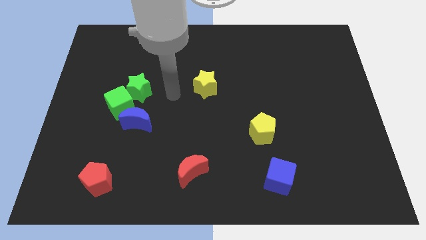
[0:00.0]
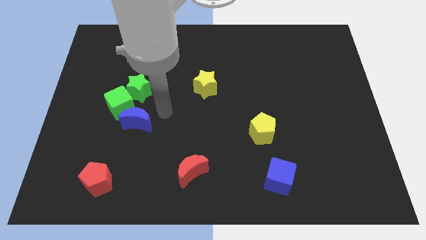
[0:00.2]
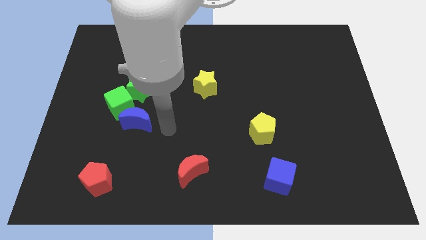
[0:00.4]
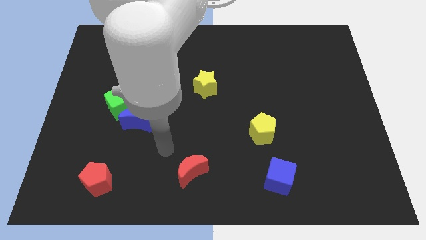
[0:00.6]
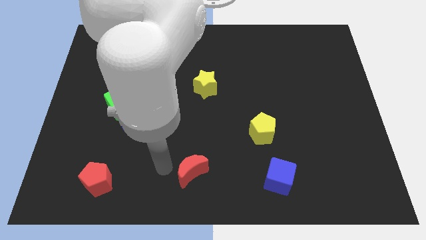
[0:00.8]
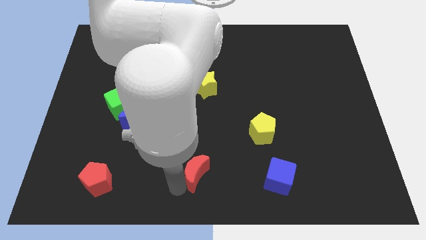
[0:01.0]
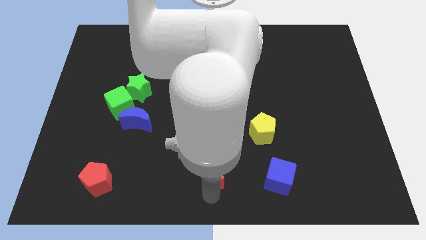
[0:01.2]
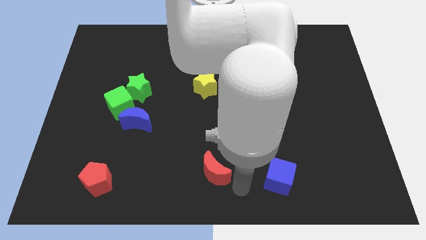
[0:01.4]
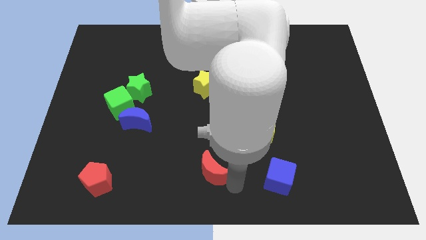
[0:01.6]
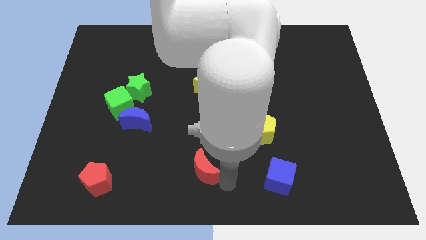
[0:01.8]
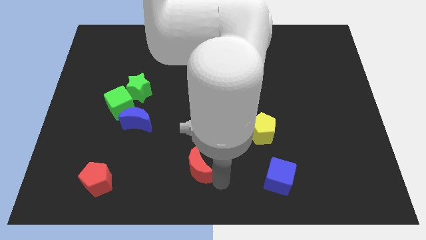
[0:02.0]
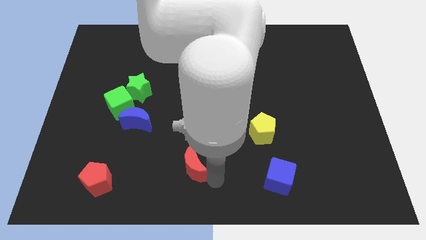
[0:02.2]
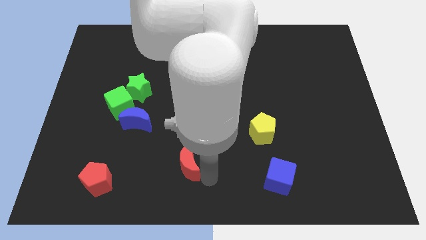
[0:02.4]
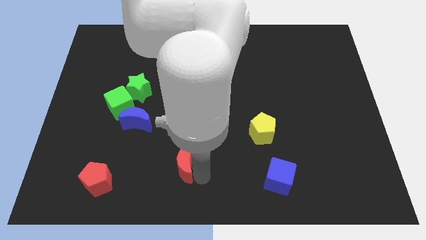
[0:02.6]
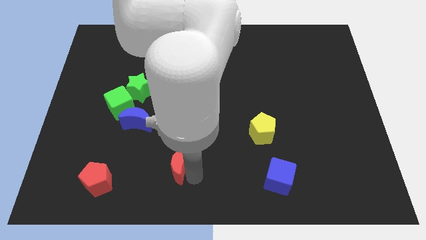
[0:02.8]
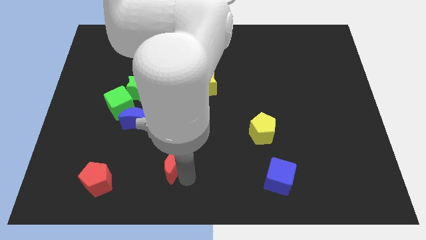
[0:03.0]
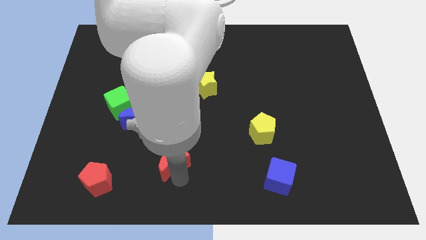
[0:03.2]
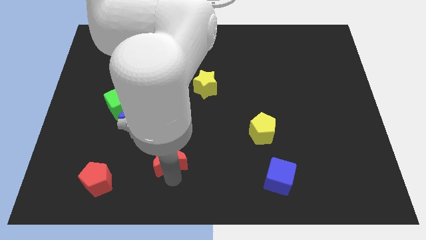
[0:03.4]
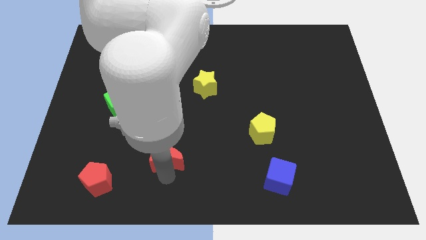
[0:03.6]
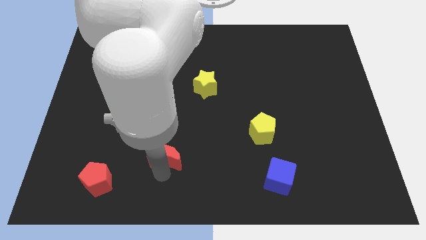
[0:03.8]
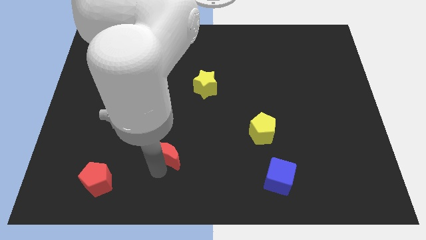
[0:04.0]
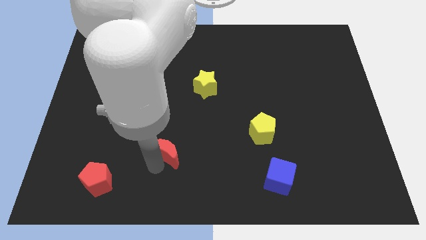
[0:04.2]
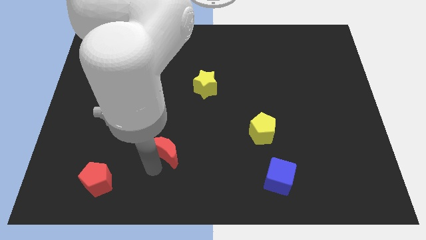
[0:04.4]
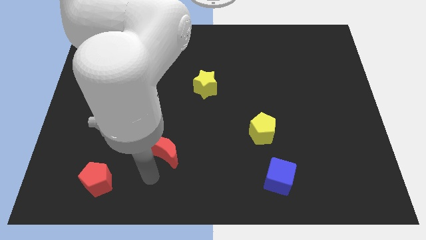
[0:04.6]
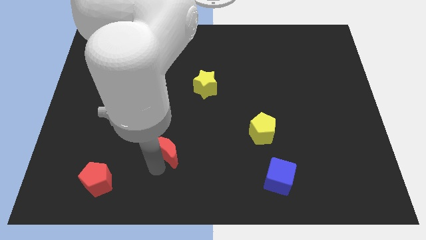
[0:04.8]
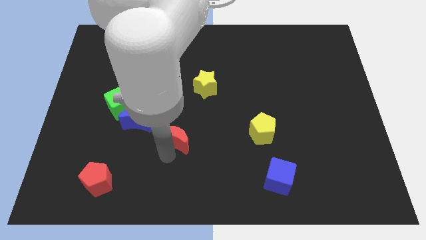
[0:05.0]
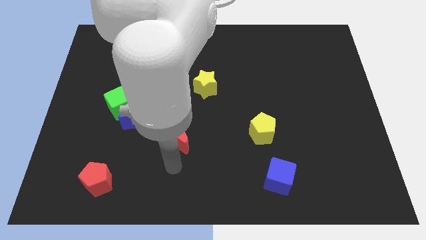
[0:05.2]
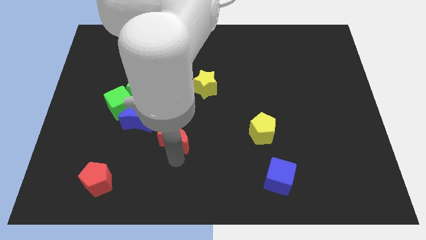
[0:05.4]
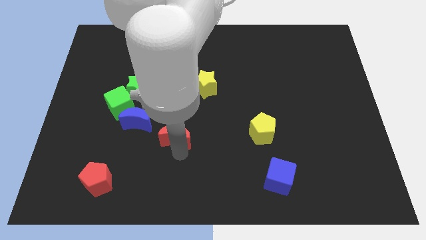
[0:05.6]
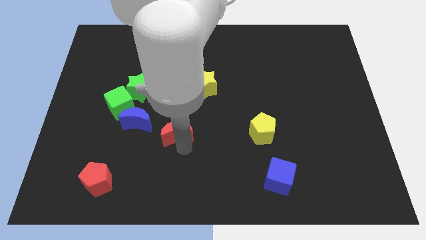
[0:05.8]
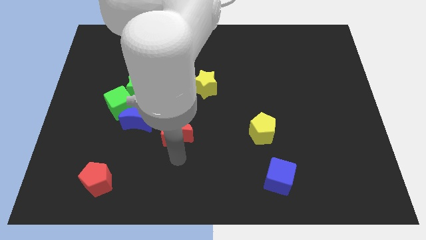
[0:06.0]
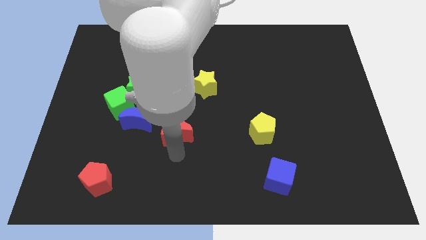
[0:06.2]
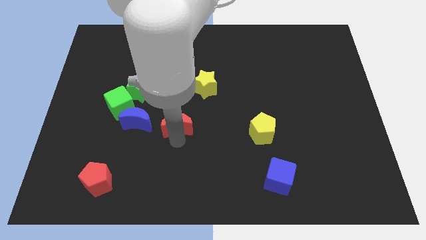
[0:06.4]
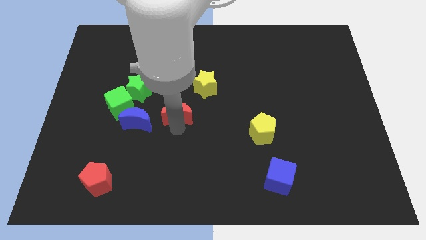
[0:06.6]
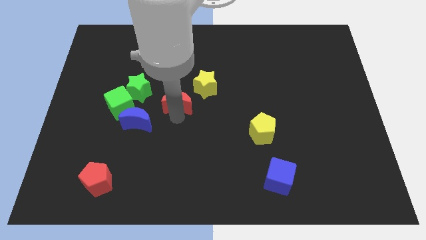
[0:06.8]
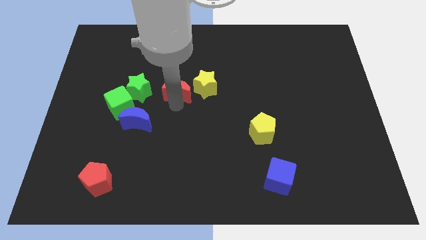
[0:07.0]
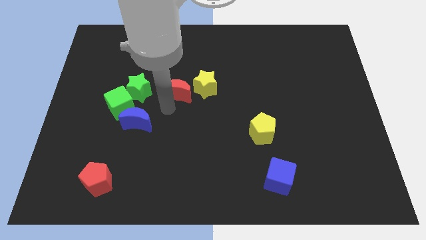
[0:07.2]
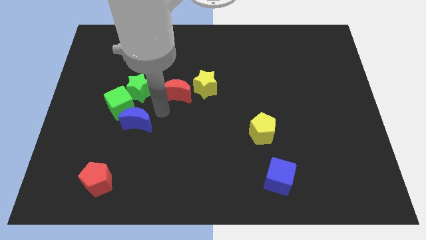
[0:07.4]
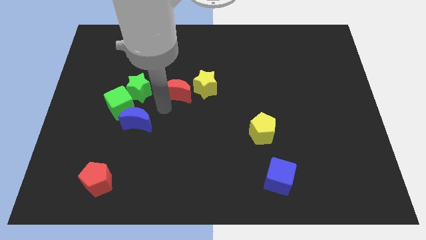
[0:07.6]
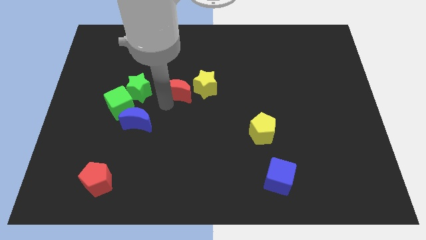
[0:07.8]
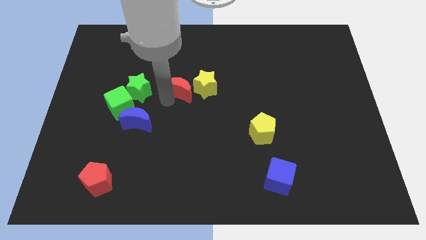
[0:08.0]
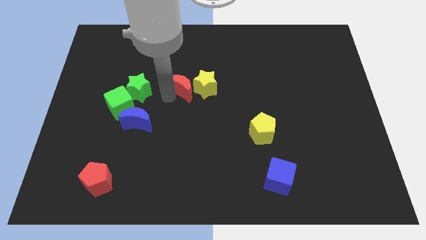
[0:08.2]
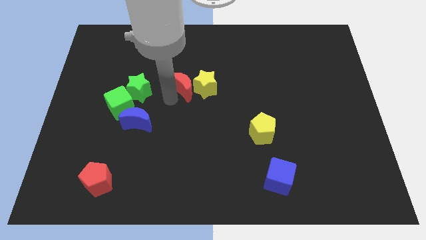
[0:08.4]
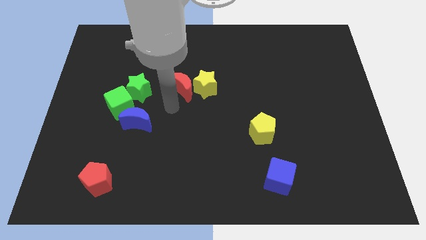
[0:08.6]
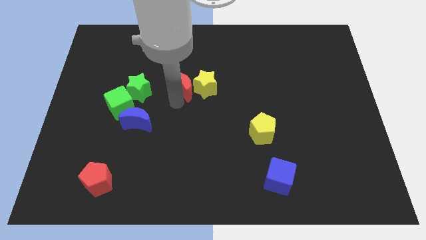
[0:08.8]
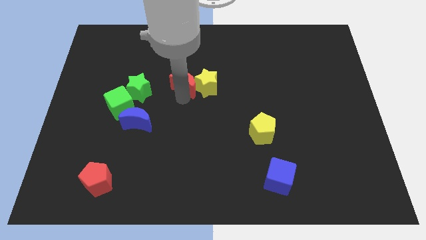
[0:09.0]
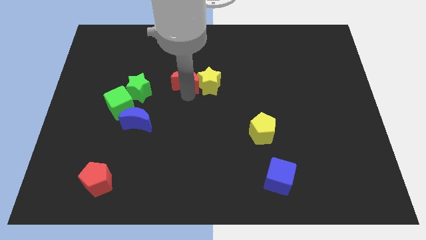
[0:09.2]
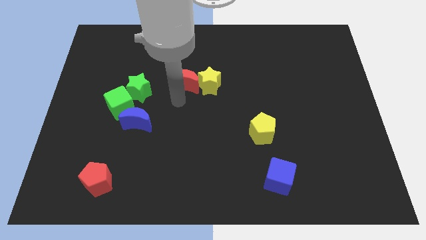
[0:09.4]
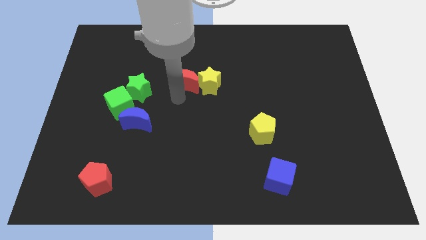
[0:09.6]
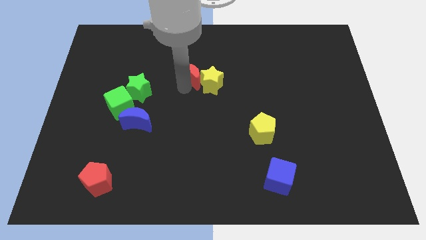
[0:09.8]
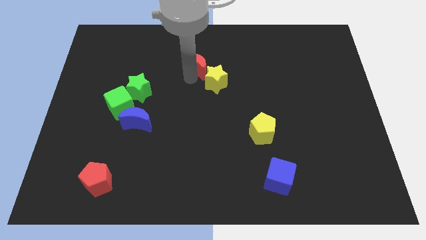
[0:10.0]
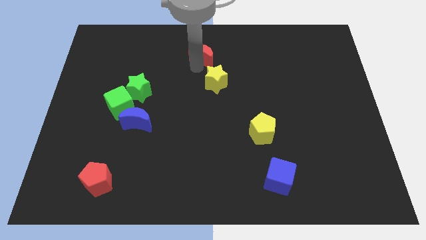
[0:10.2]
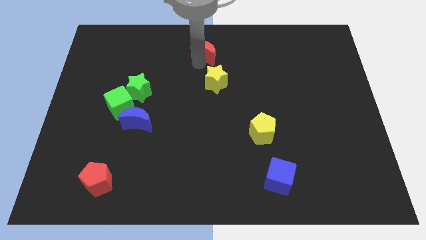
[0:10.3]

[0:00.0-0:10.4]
move the red moon to the top side
